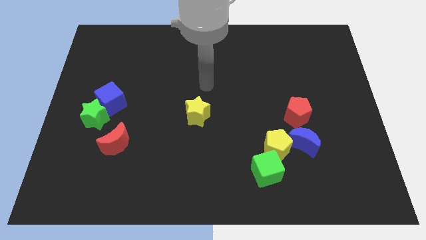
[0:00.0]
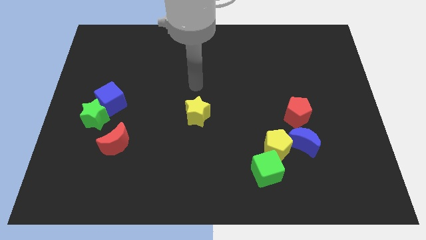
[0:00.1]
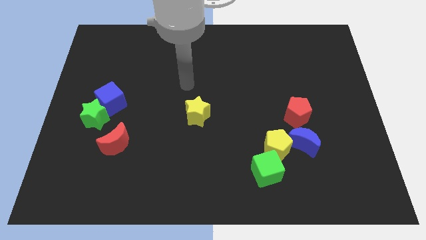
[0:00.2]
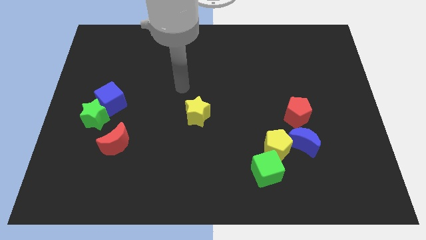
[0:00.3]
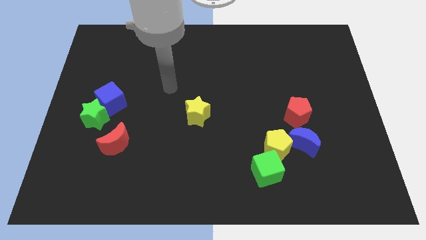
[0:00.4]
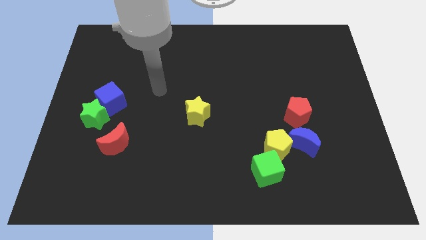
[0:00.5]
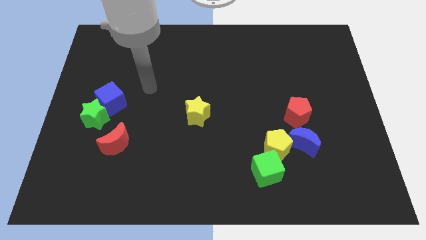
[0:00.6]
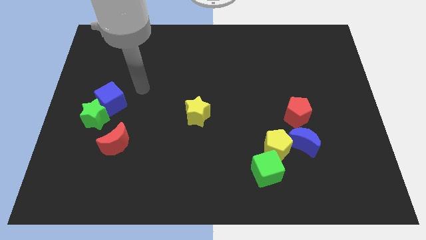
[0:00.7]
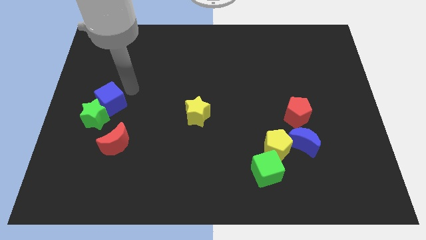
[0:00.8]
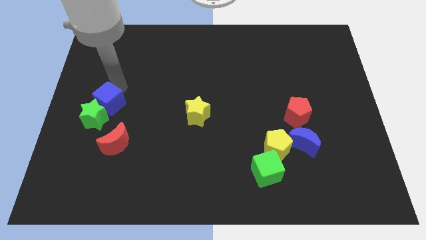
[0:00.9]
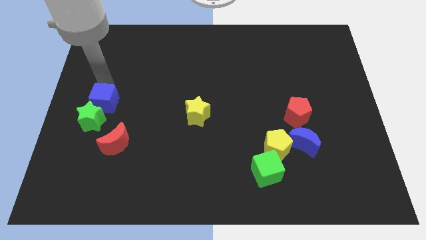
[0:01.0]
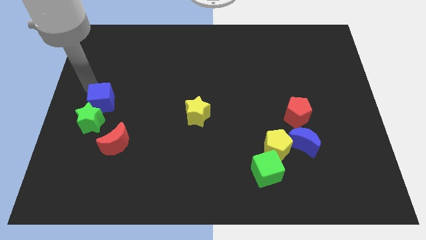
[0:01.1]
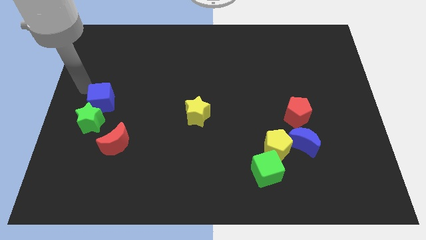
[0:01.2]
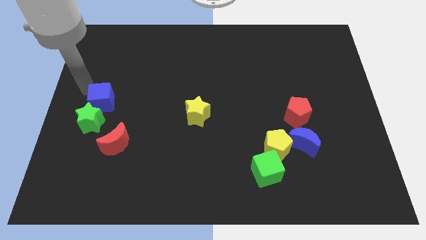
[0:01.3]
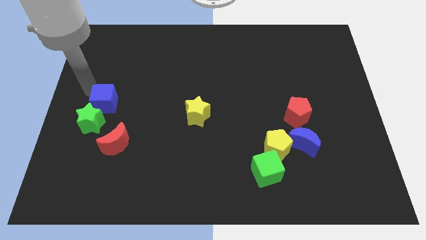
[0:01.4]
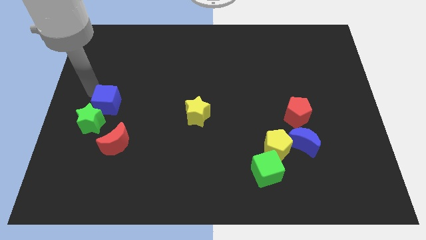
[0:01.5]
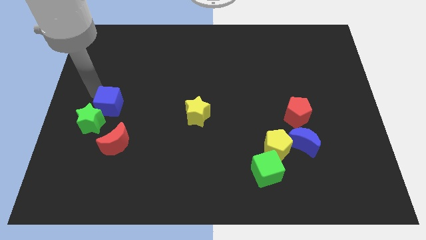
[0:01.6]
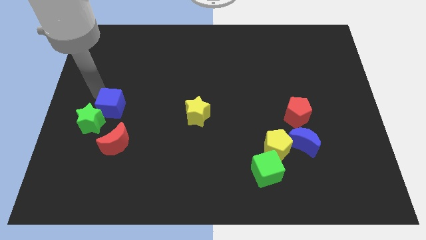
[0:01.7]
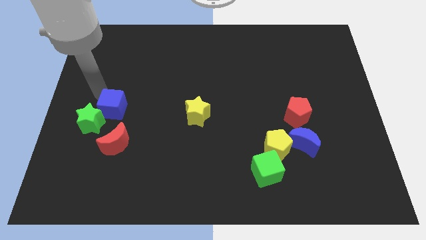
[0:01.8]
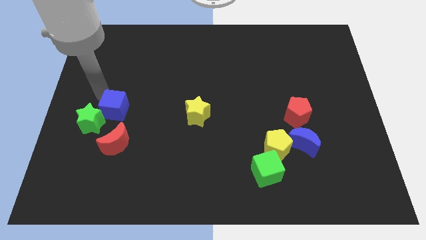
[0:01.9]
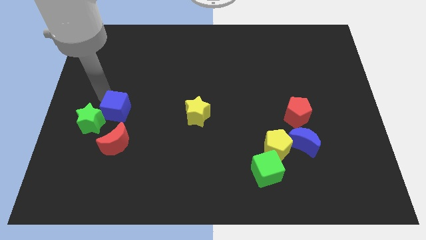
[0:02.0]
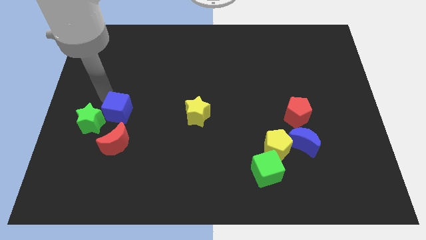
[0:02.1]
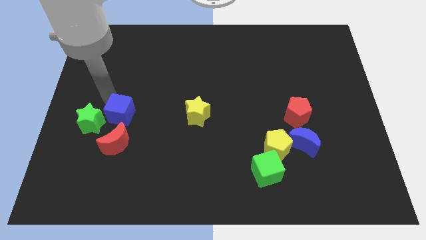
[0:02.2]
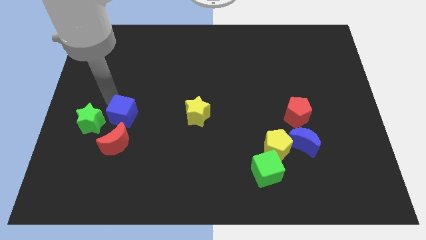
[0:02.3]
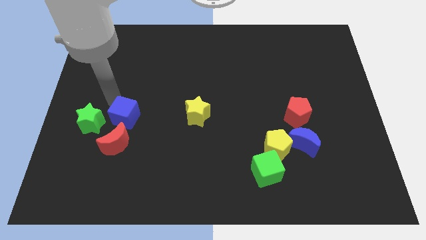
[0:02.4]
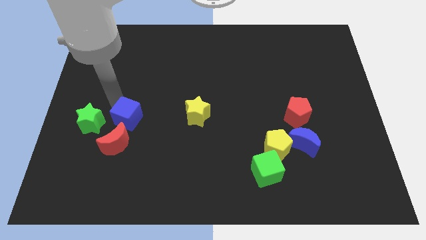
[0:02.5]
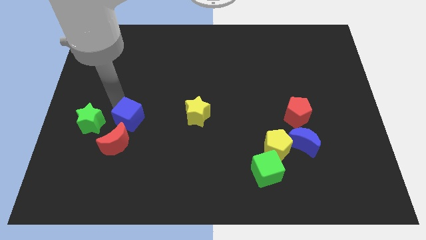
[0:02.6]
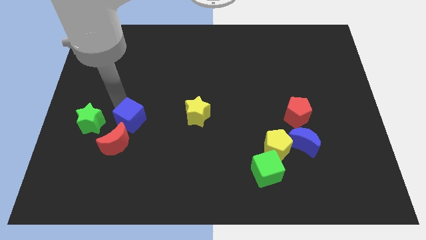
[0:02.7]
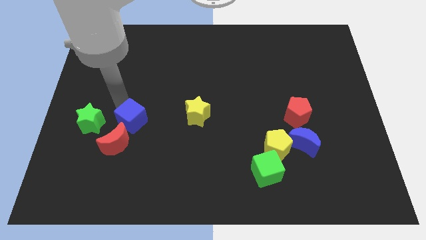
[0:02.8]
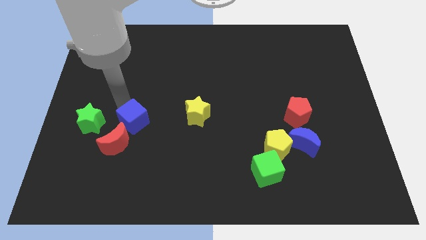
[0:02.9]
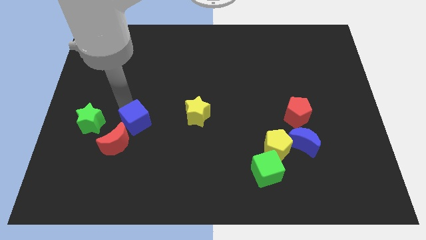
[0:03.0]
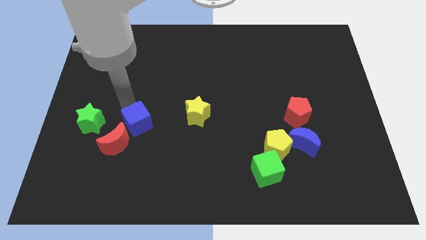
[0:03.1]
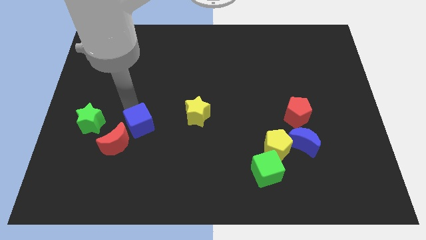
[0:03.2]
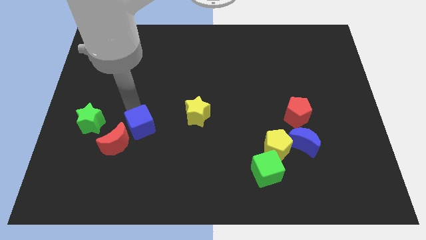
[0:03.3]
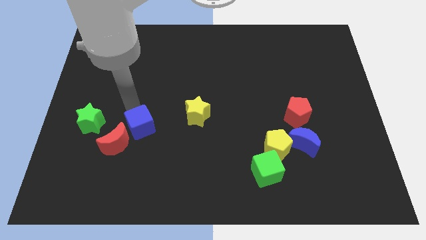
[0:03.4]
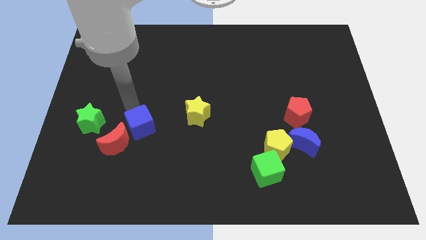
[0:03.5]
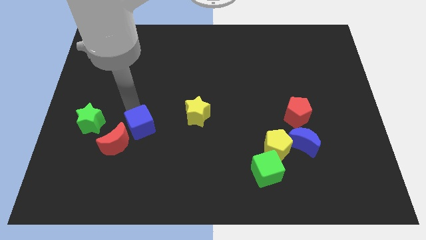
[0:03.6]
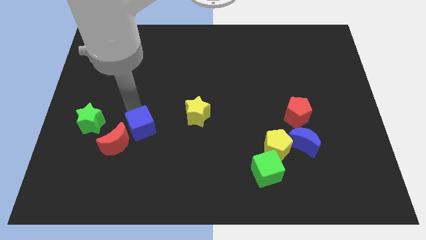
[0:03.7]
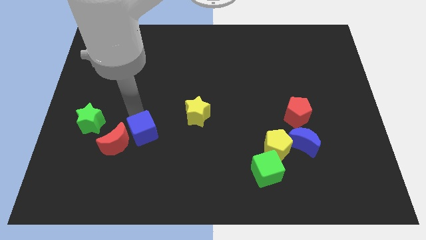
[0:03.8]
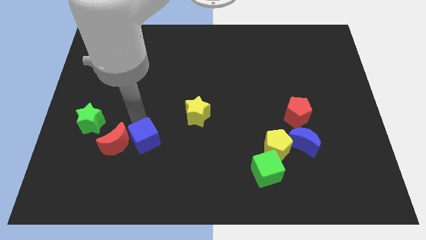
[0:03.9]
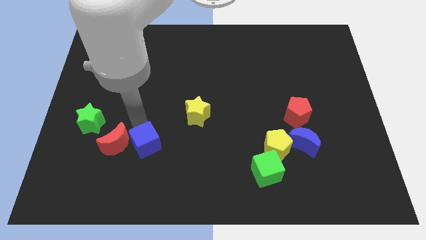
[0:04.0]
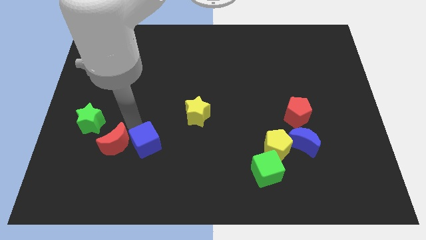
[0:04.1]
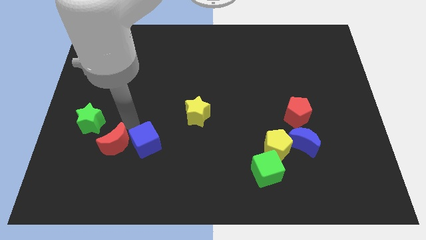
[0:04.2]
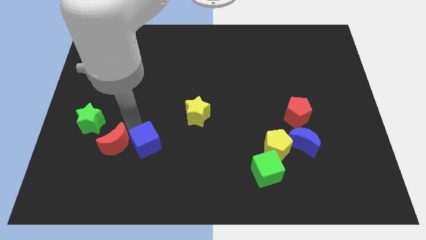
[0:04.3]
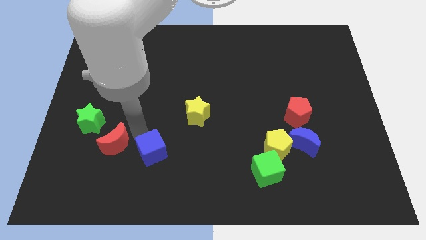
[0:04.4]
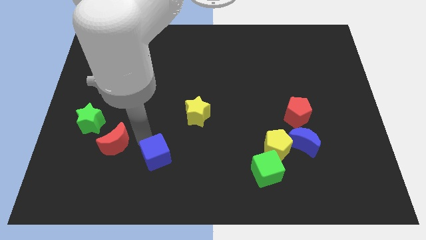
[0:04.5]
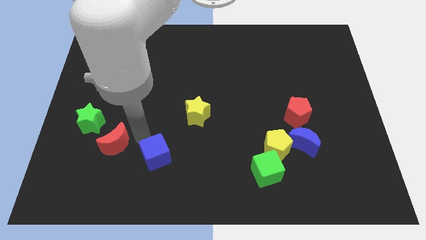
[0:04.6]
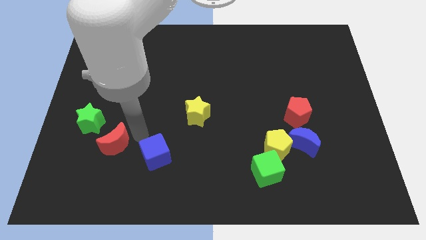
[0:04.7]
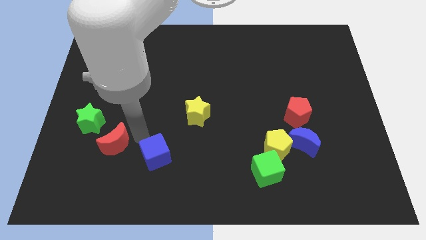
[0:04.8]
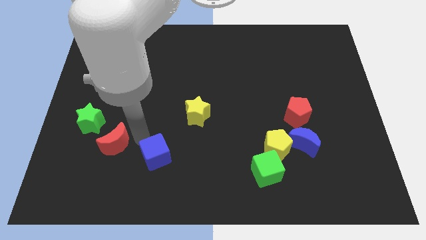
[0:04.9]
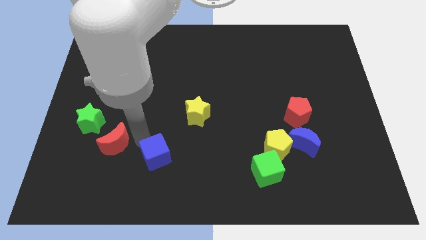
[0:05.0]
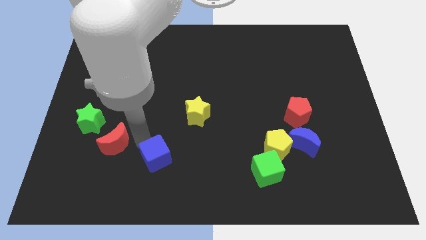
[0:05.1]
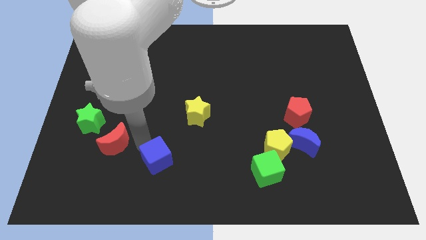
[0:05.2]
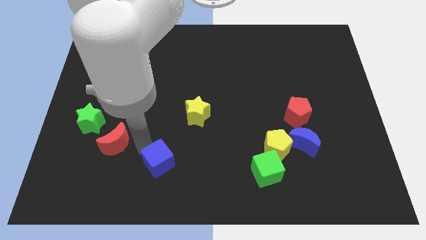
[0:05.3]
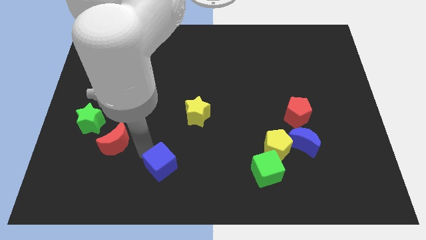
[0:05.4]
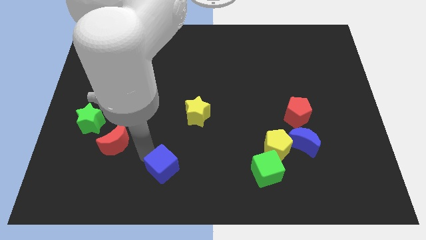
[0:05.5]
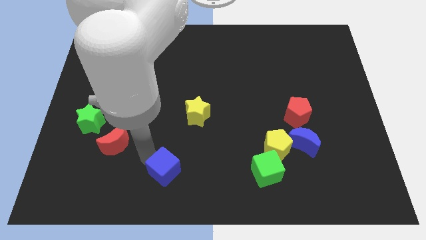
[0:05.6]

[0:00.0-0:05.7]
push the blue cube to the bottom side

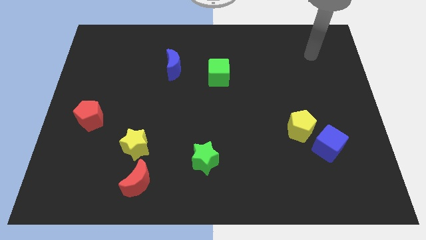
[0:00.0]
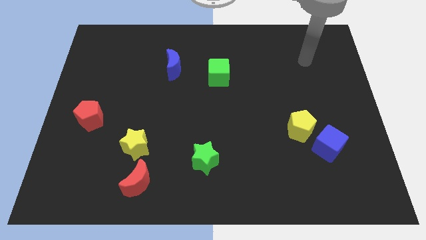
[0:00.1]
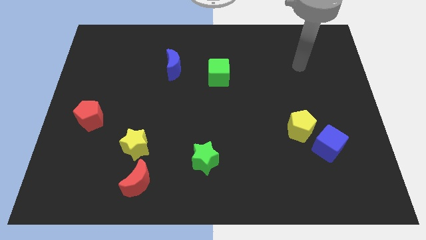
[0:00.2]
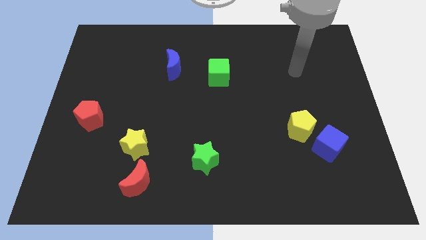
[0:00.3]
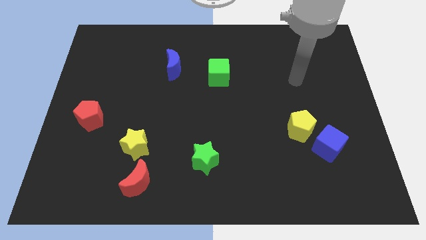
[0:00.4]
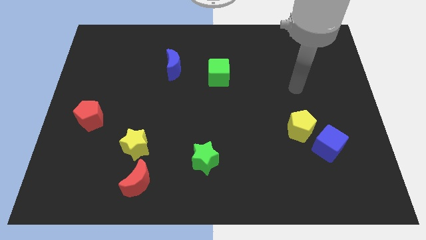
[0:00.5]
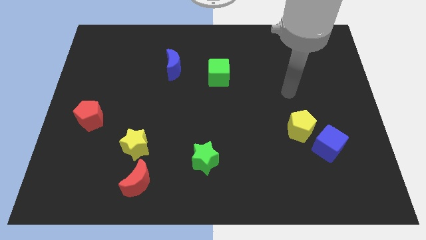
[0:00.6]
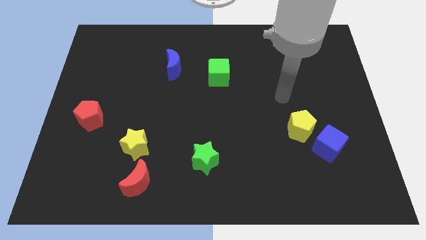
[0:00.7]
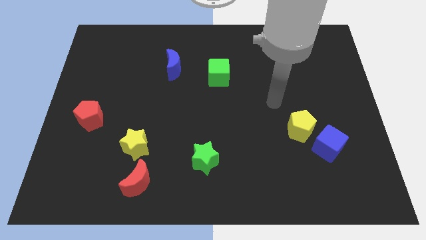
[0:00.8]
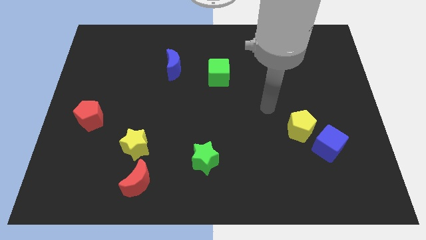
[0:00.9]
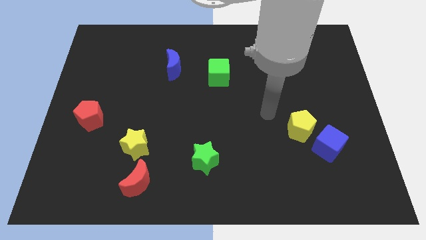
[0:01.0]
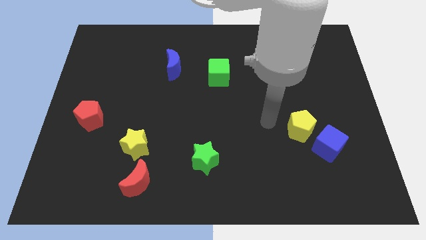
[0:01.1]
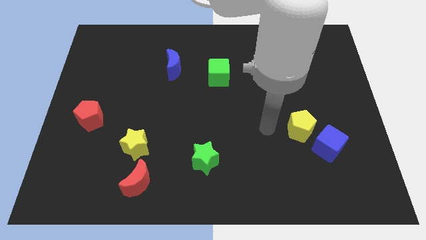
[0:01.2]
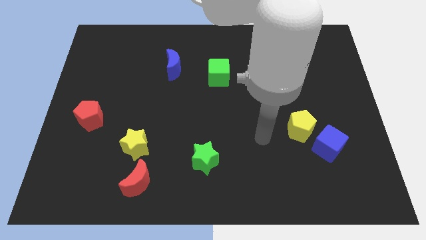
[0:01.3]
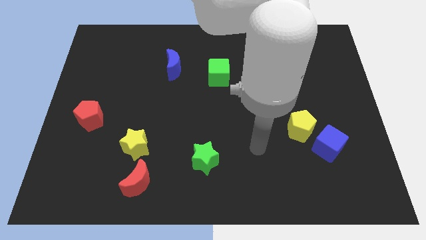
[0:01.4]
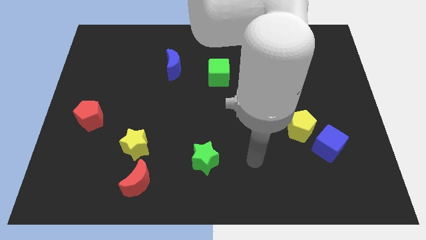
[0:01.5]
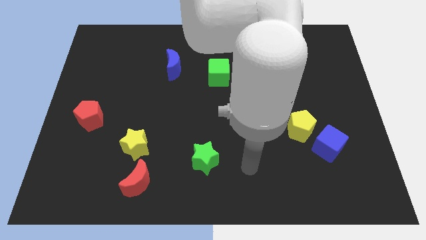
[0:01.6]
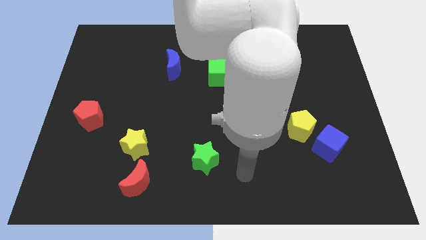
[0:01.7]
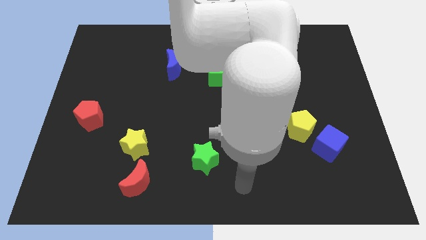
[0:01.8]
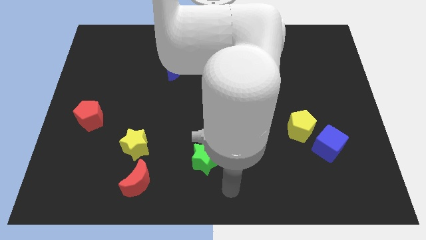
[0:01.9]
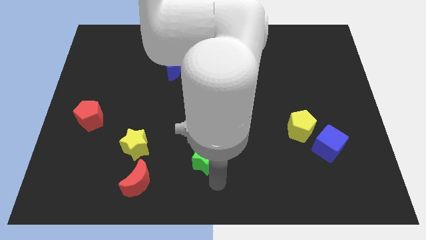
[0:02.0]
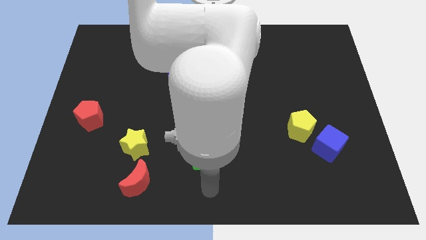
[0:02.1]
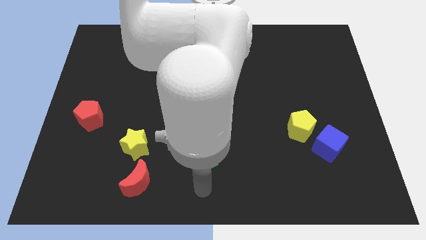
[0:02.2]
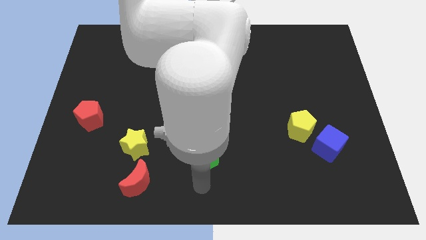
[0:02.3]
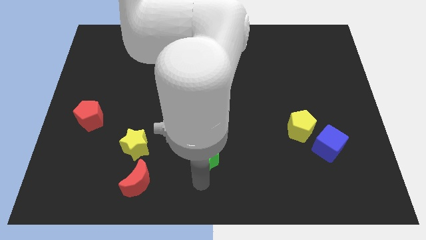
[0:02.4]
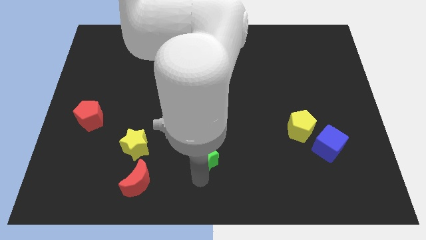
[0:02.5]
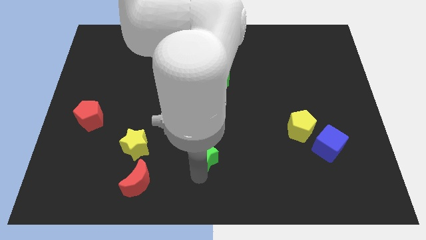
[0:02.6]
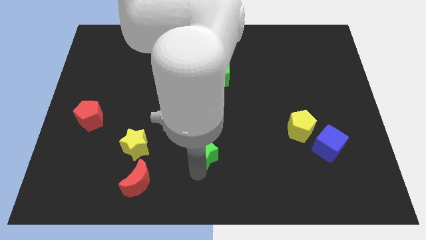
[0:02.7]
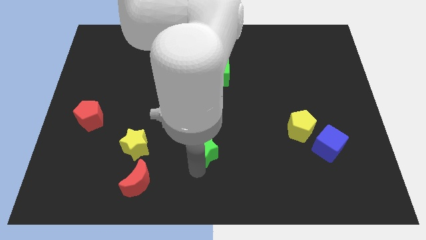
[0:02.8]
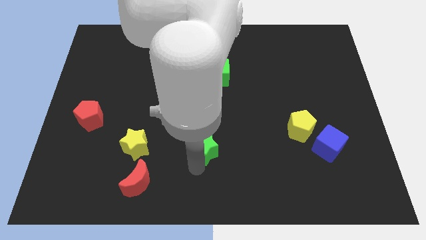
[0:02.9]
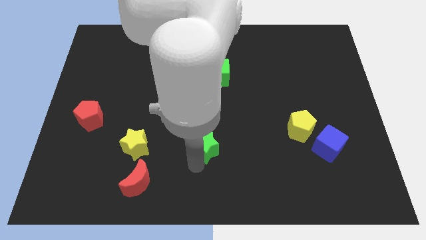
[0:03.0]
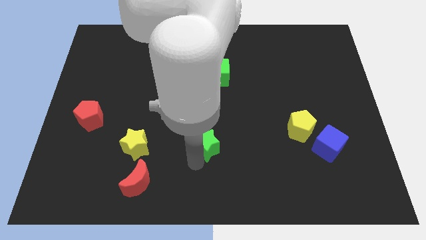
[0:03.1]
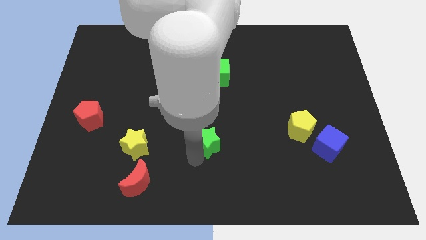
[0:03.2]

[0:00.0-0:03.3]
slide the green star to the center of the board
